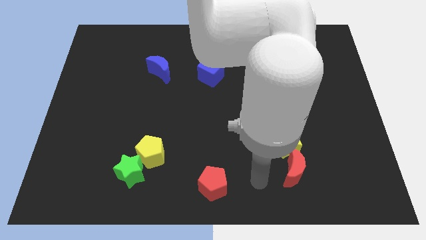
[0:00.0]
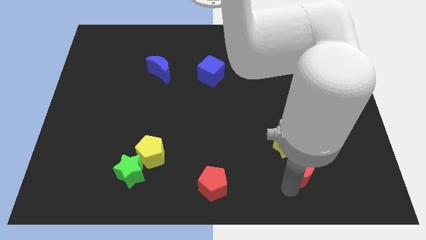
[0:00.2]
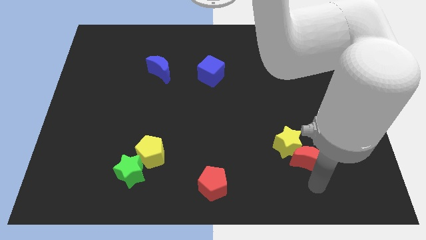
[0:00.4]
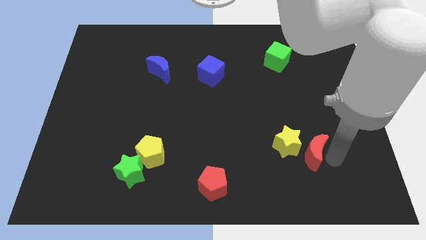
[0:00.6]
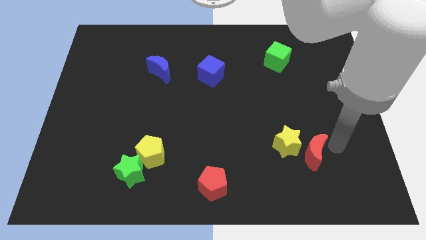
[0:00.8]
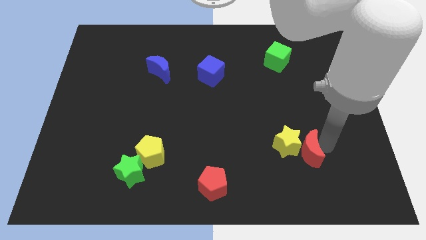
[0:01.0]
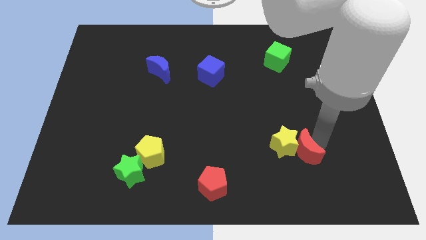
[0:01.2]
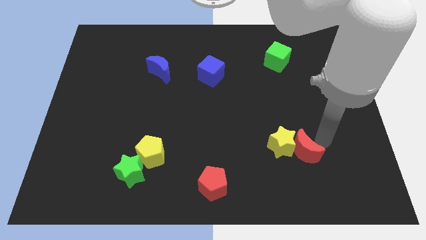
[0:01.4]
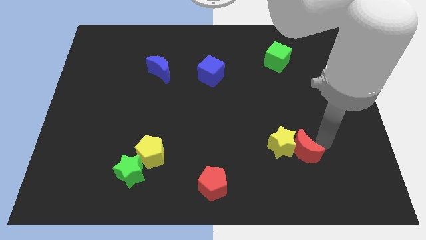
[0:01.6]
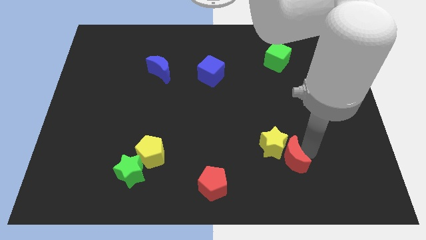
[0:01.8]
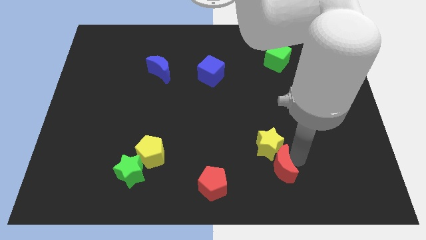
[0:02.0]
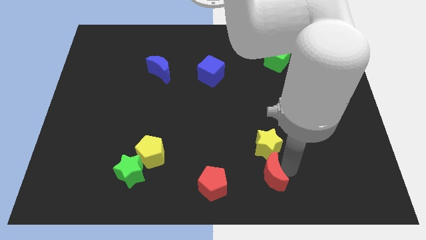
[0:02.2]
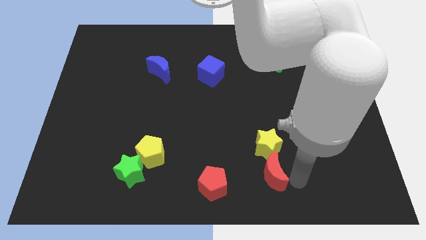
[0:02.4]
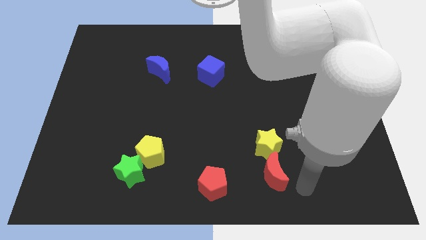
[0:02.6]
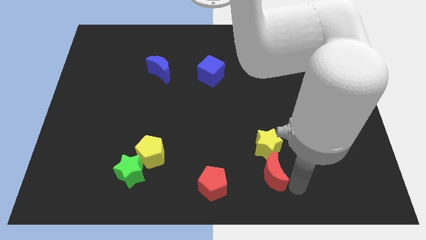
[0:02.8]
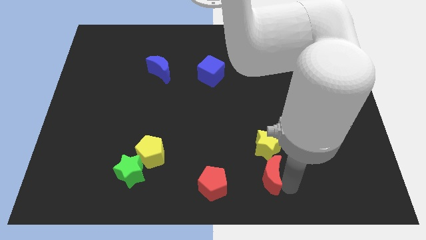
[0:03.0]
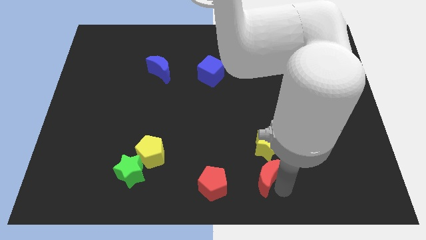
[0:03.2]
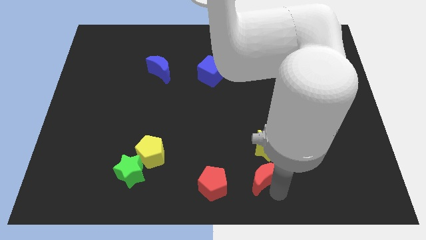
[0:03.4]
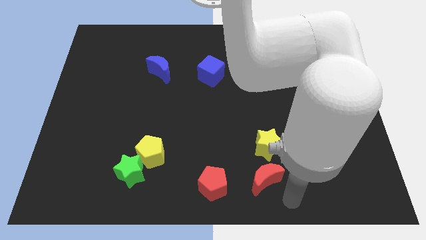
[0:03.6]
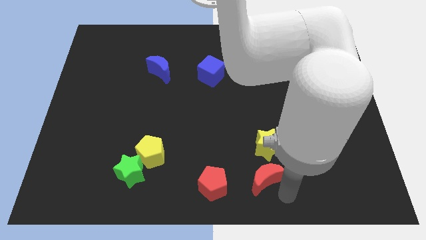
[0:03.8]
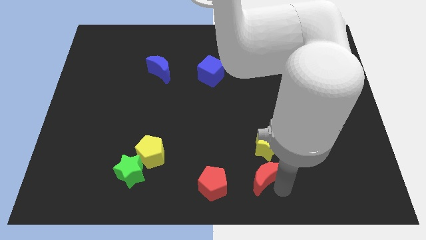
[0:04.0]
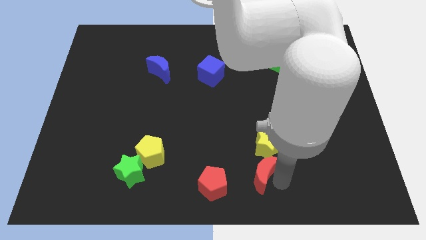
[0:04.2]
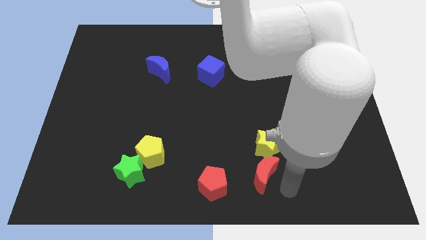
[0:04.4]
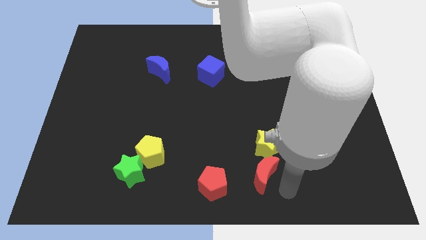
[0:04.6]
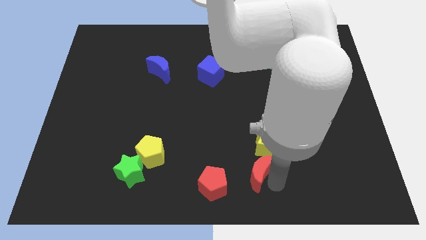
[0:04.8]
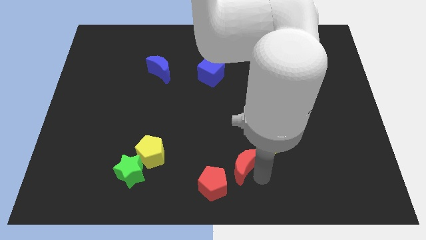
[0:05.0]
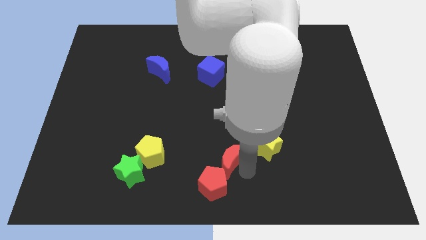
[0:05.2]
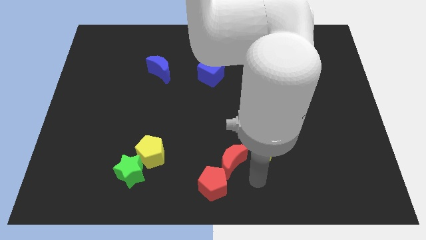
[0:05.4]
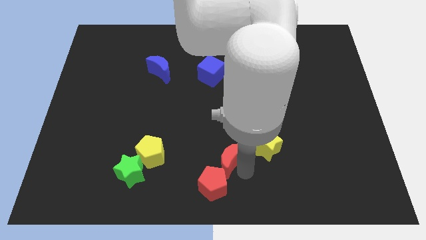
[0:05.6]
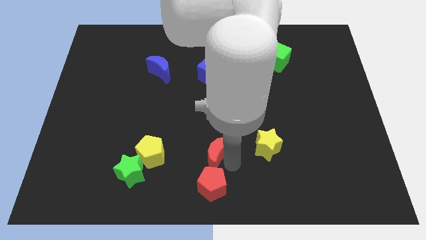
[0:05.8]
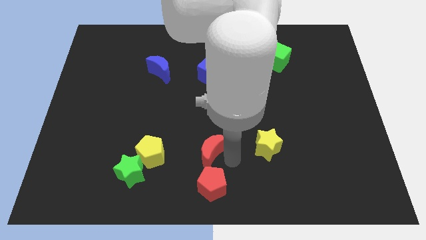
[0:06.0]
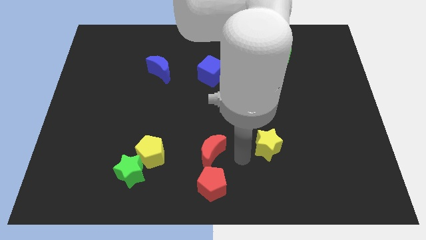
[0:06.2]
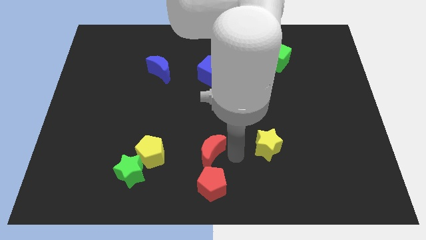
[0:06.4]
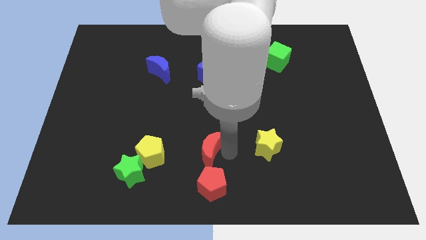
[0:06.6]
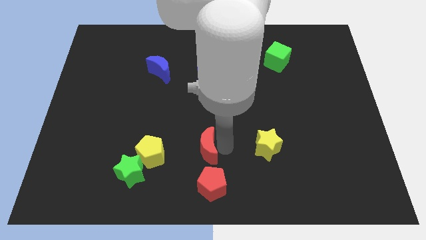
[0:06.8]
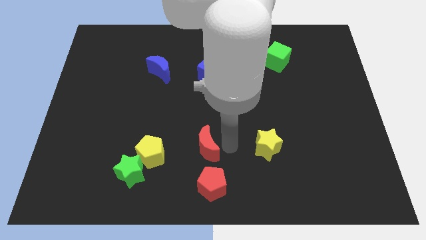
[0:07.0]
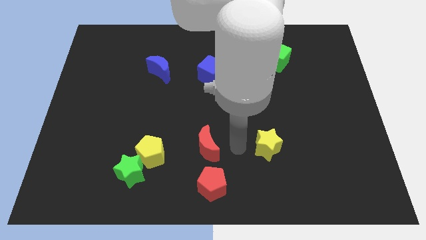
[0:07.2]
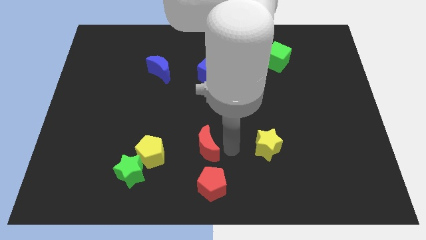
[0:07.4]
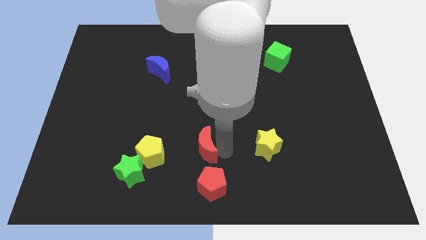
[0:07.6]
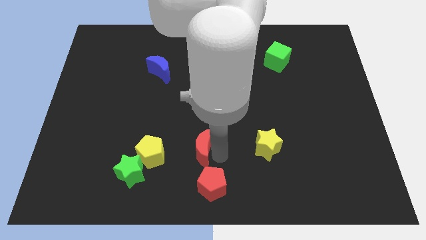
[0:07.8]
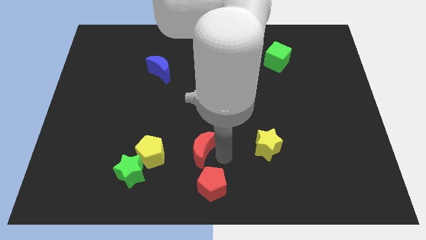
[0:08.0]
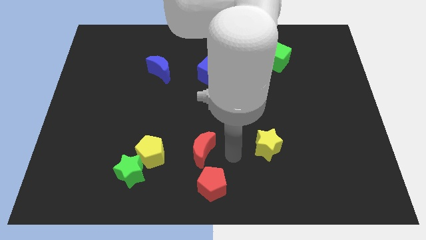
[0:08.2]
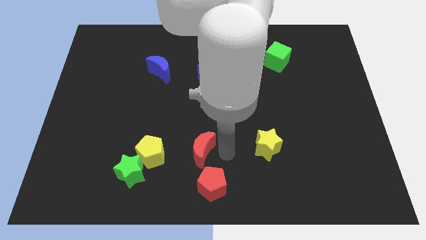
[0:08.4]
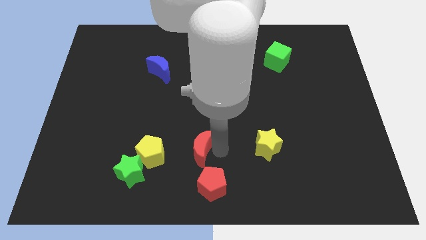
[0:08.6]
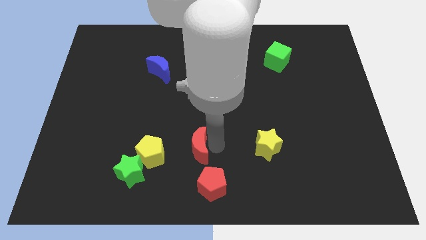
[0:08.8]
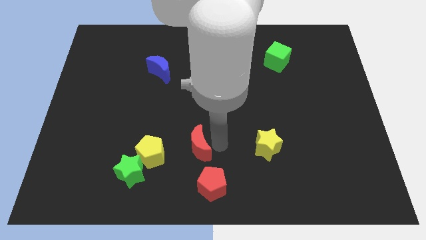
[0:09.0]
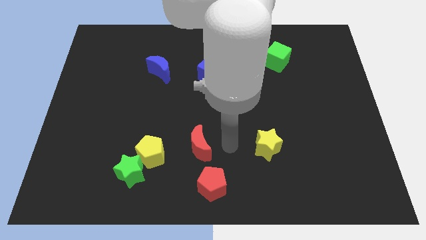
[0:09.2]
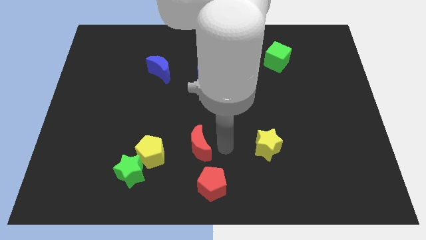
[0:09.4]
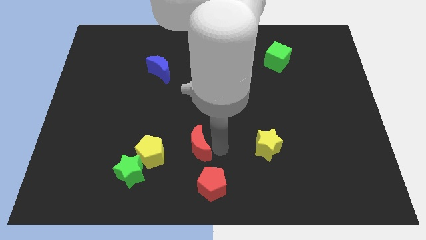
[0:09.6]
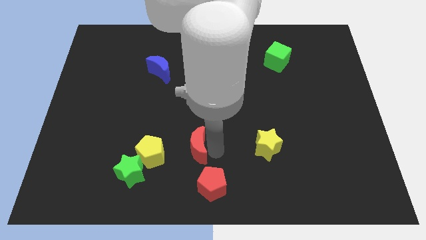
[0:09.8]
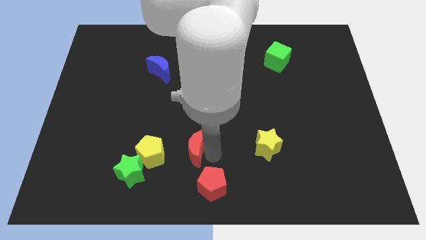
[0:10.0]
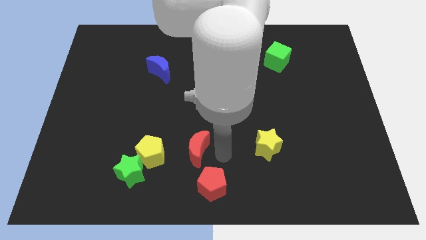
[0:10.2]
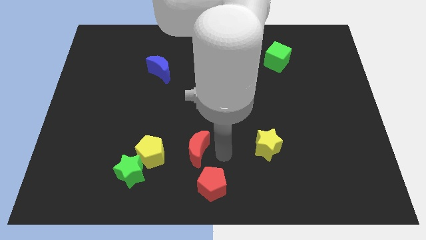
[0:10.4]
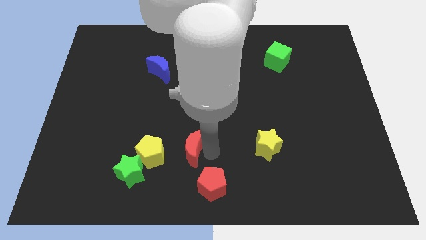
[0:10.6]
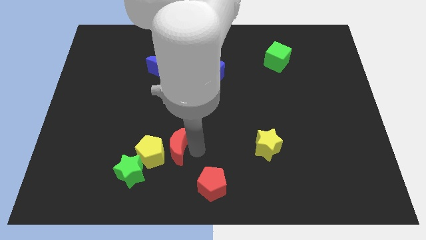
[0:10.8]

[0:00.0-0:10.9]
slide the red moon close to the yellow pentagon

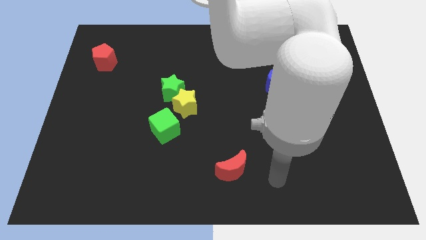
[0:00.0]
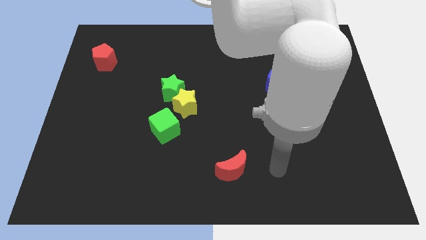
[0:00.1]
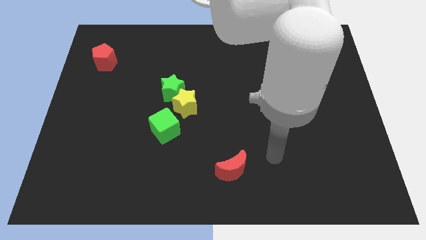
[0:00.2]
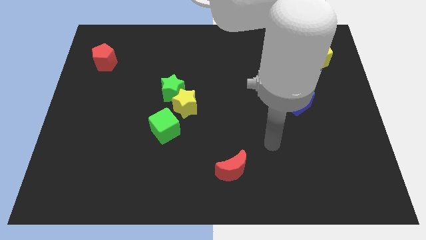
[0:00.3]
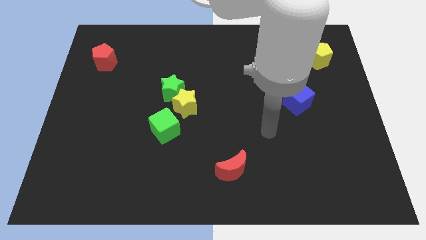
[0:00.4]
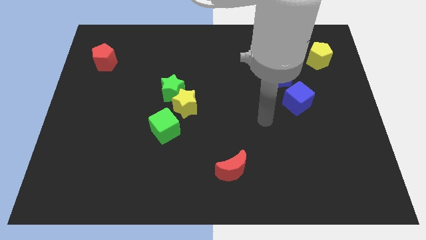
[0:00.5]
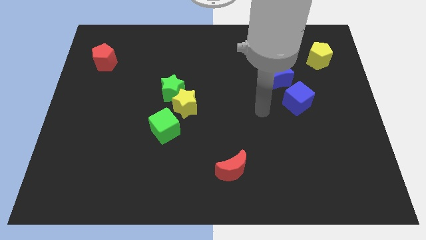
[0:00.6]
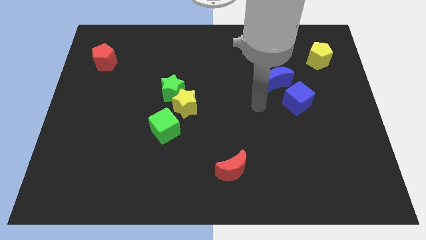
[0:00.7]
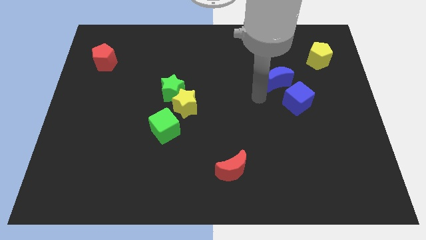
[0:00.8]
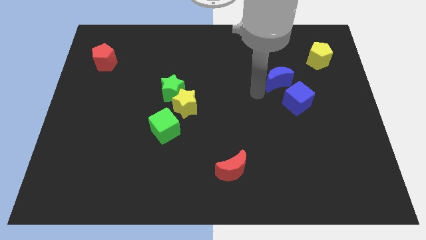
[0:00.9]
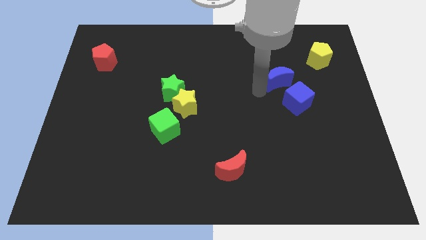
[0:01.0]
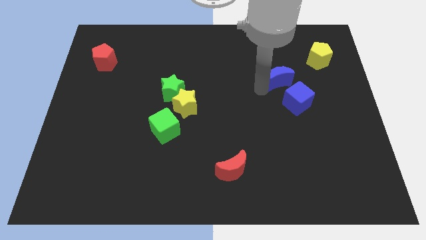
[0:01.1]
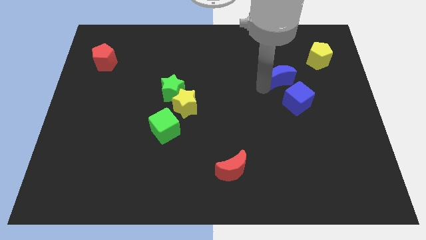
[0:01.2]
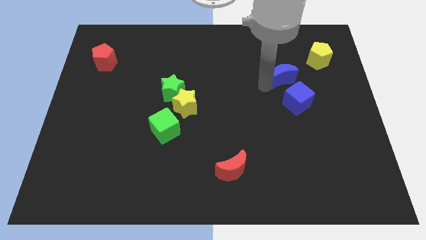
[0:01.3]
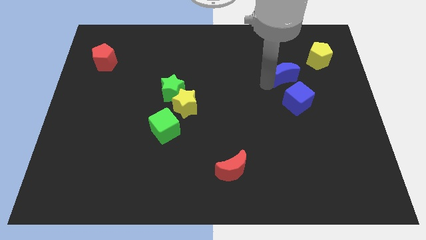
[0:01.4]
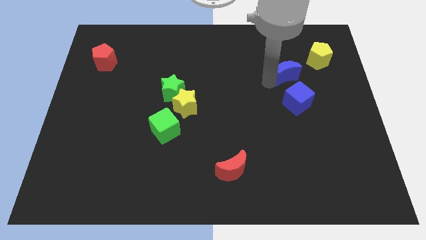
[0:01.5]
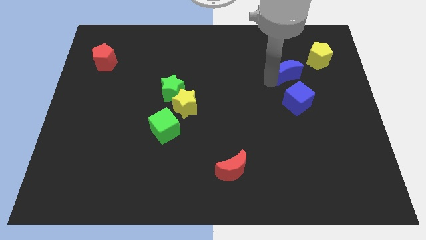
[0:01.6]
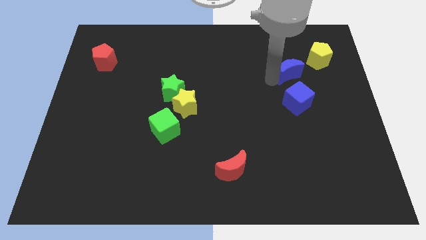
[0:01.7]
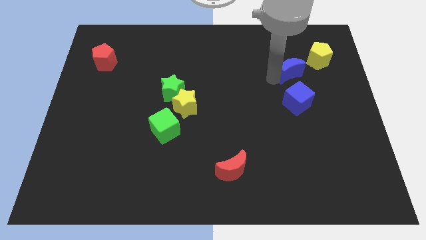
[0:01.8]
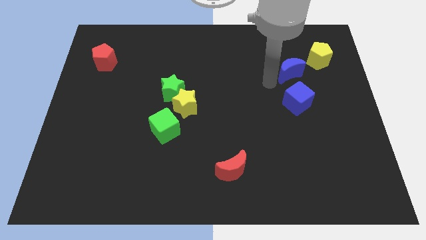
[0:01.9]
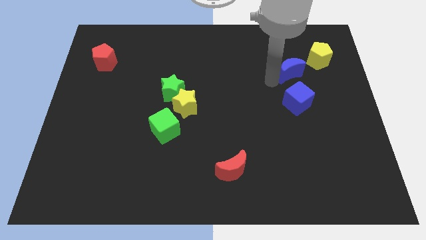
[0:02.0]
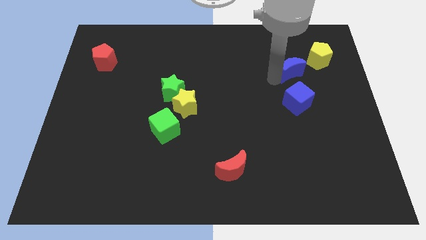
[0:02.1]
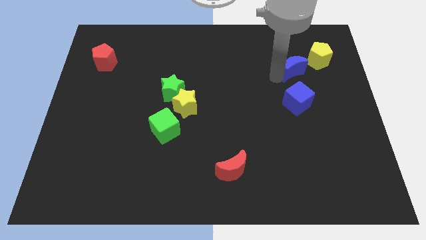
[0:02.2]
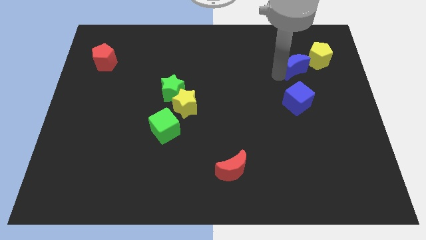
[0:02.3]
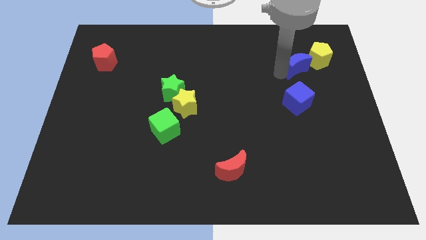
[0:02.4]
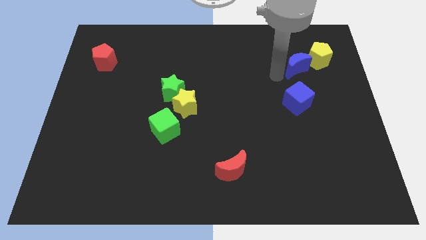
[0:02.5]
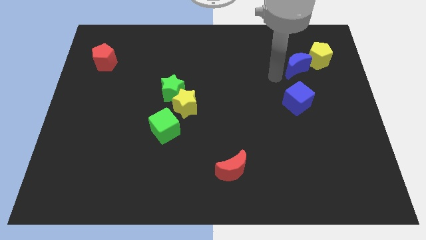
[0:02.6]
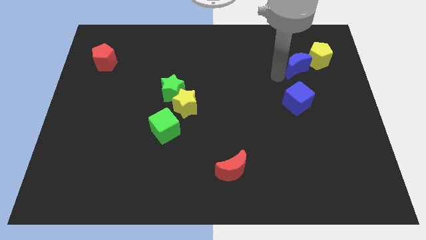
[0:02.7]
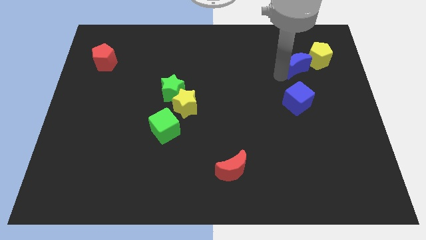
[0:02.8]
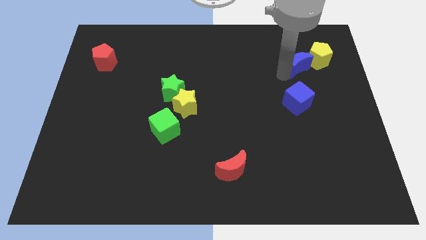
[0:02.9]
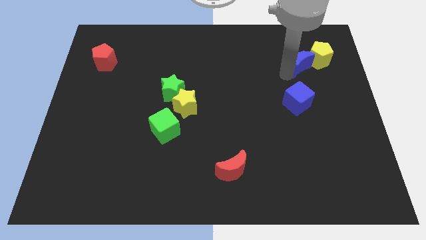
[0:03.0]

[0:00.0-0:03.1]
put the blue moon towards the yellow pentagon
